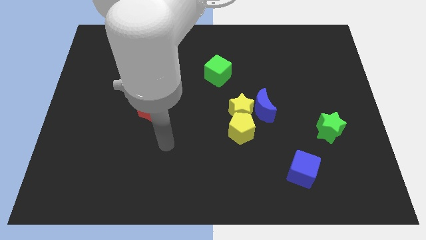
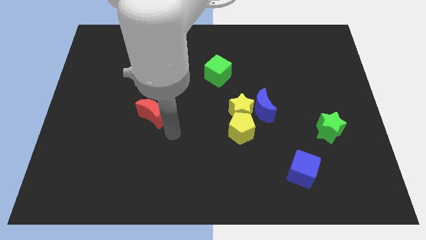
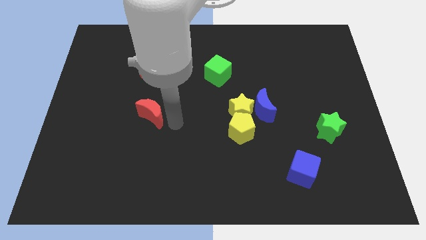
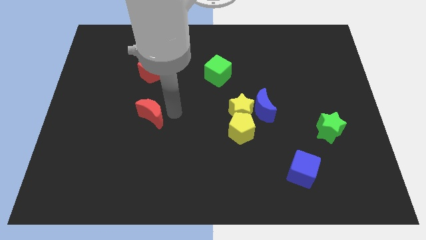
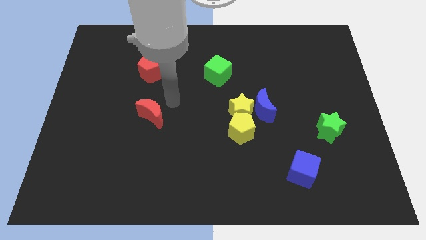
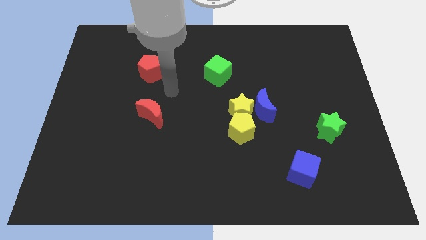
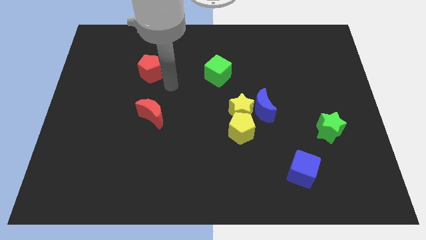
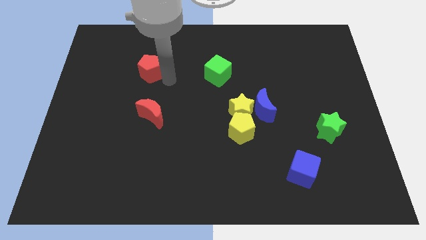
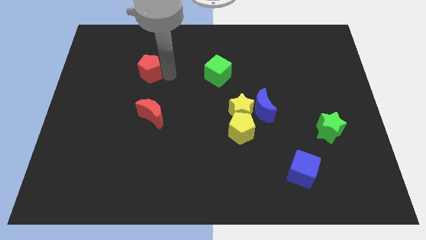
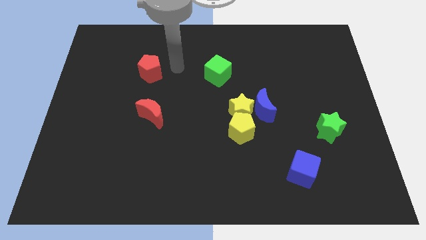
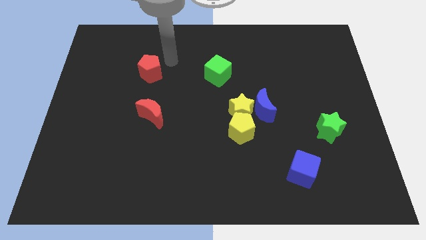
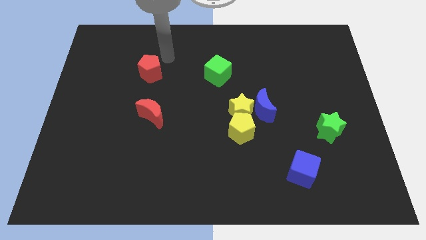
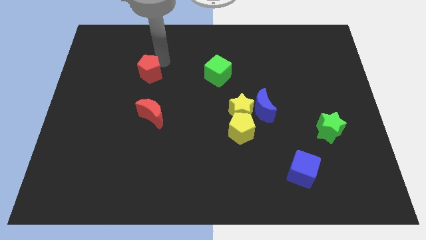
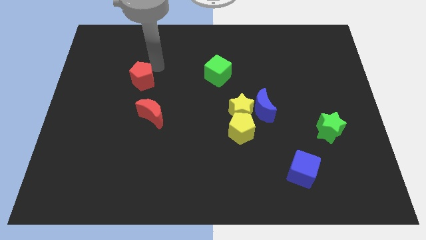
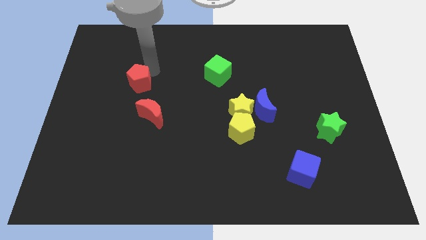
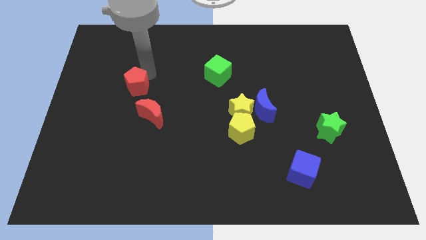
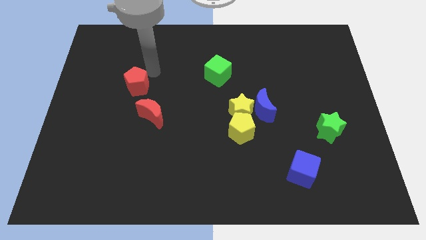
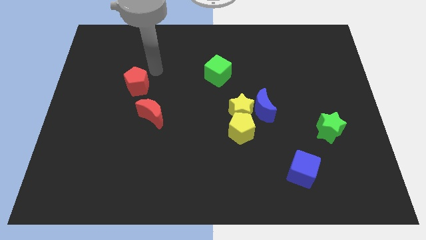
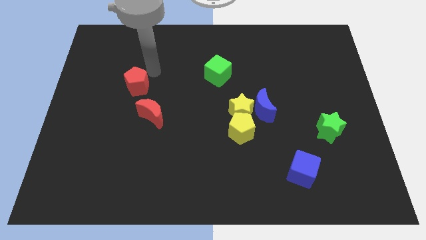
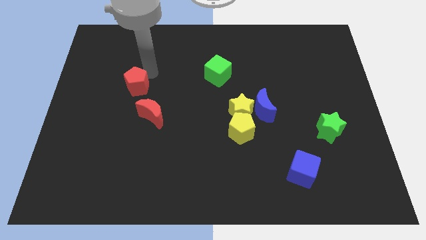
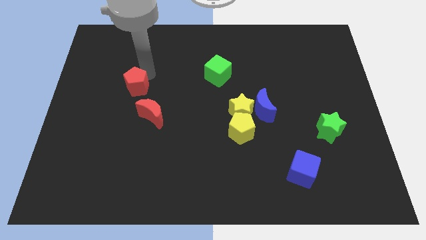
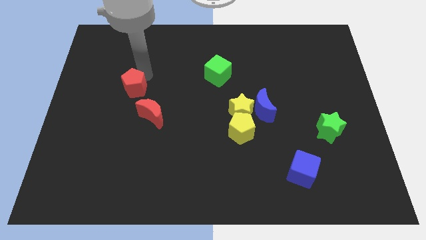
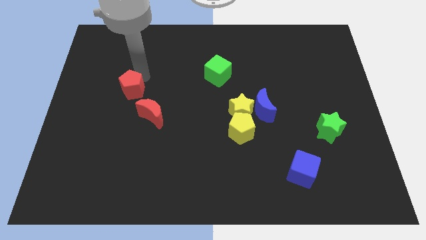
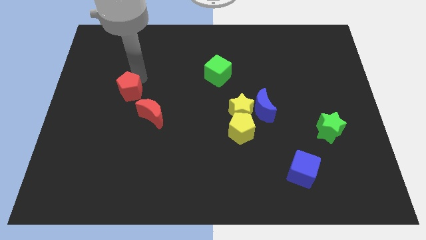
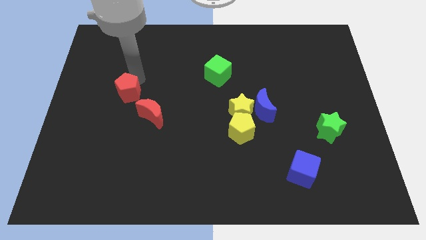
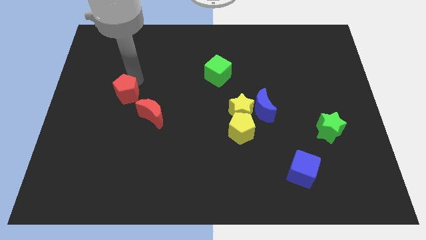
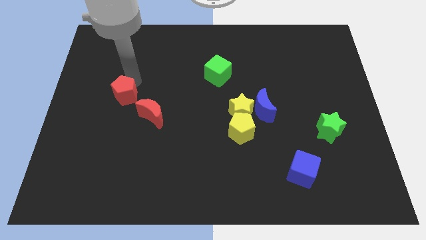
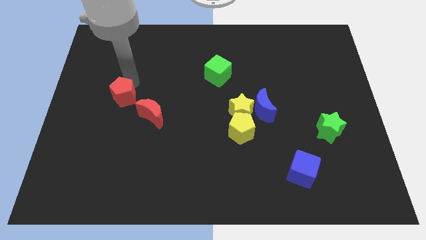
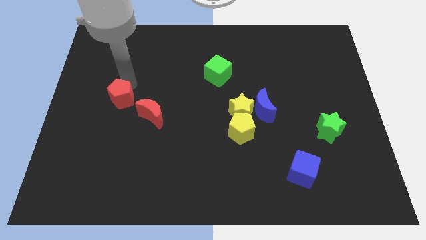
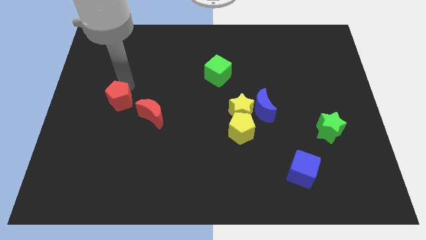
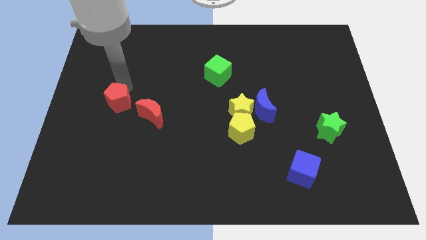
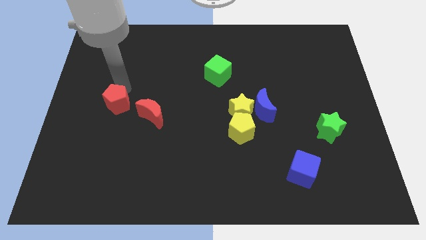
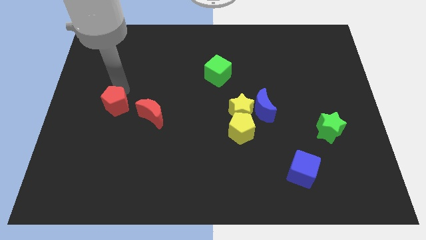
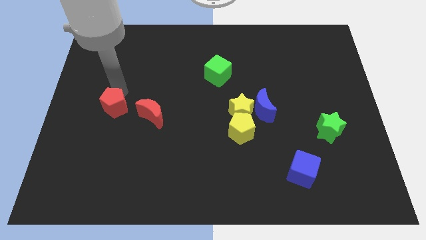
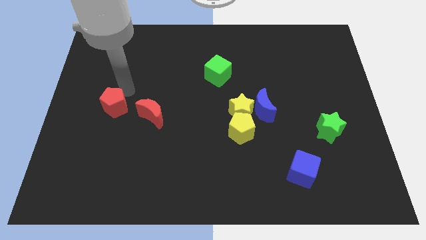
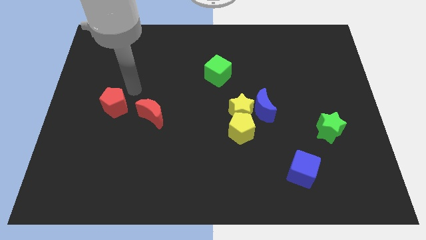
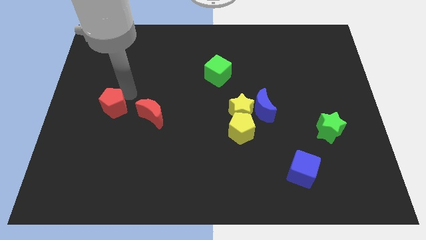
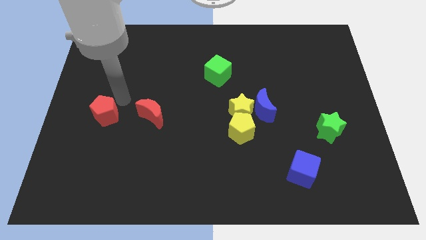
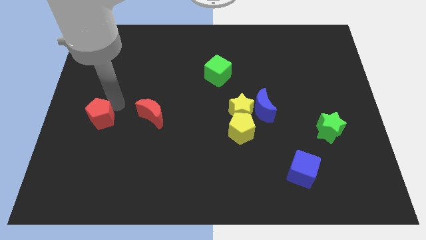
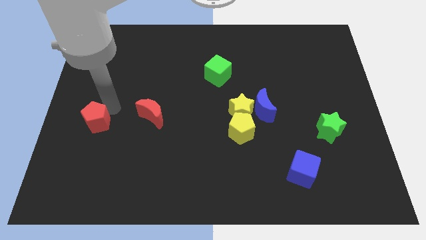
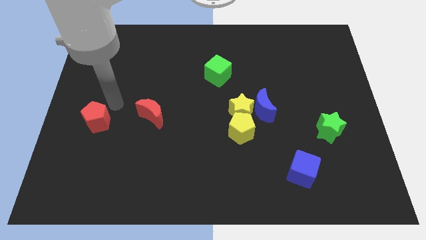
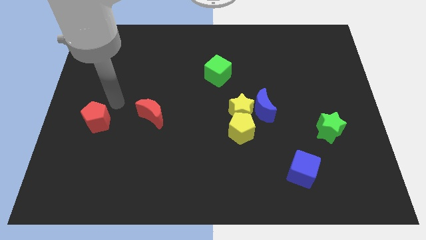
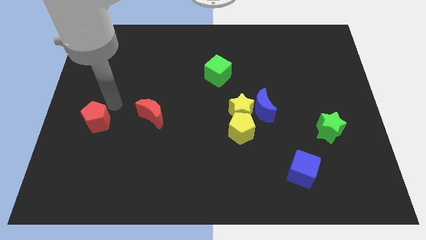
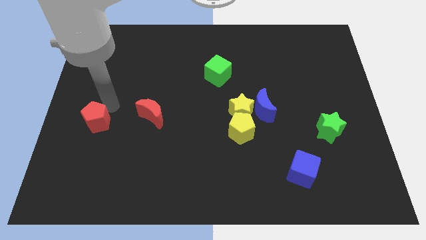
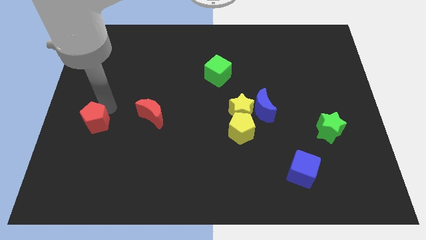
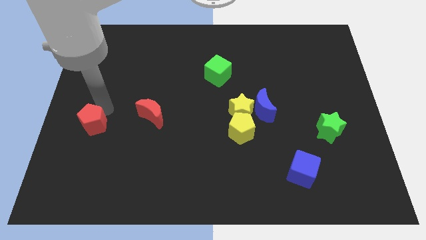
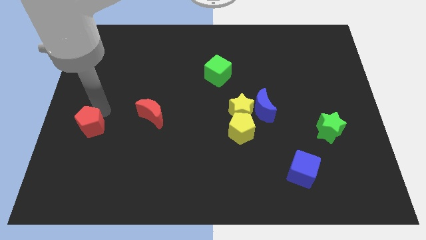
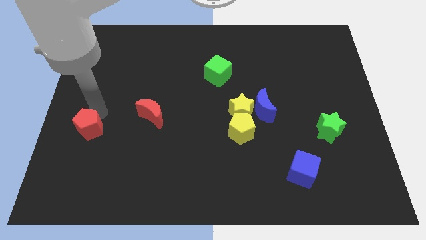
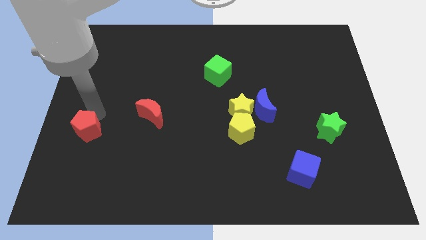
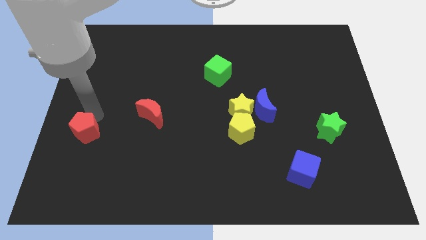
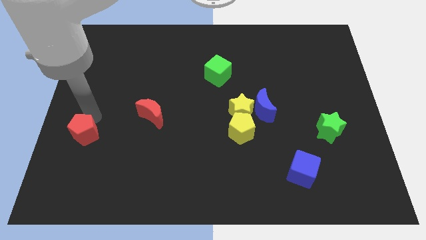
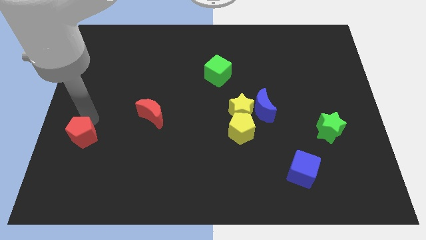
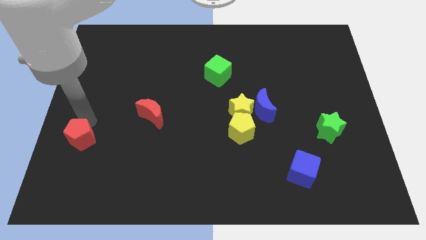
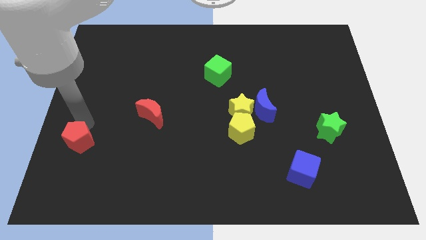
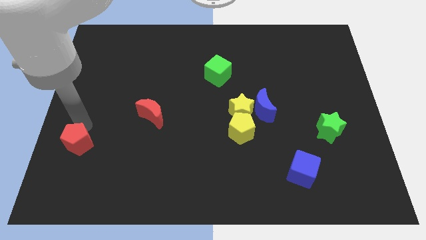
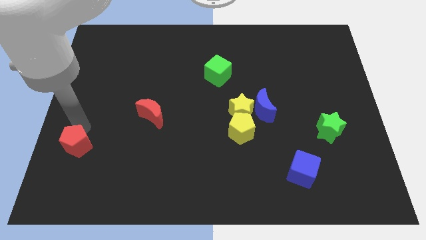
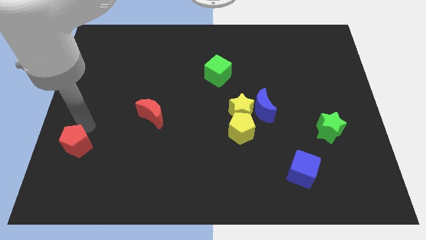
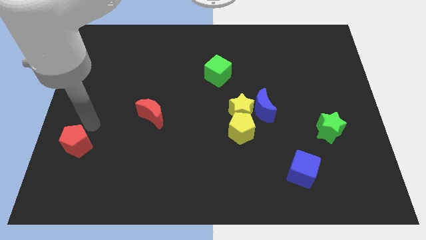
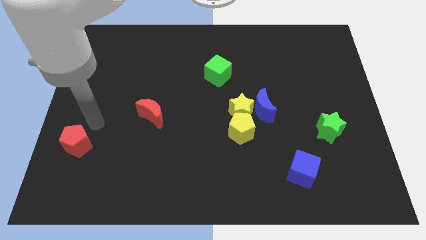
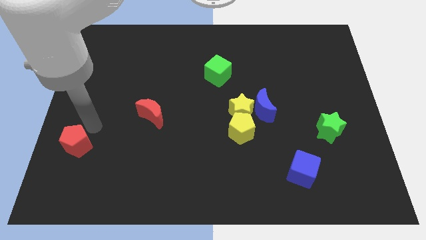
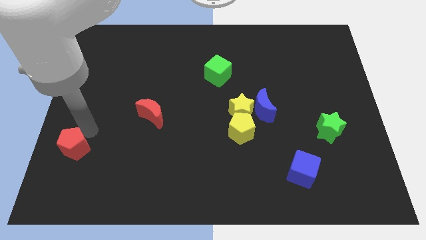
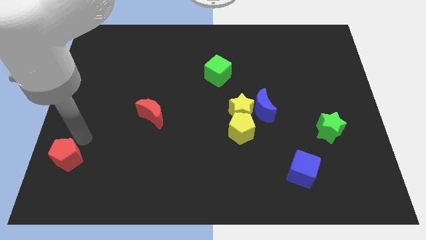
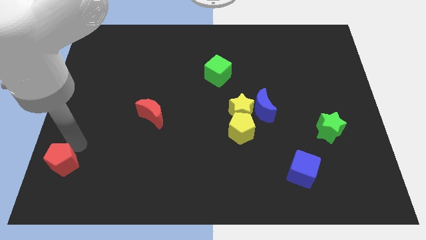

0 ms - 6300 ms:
put the red pentagon to the bottom left corner

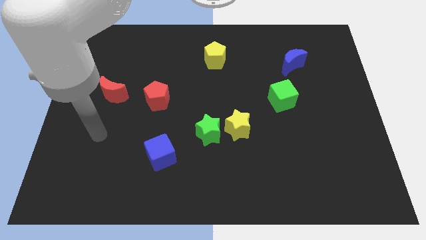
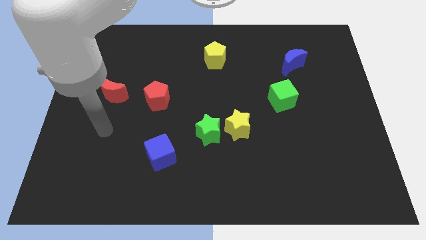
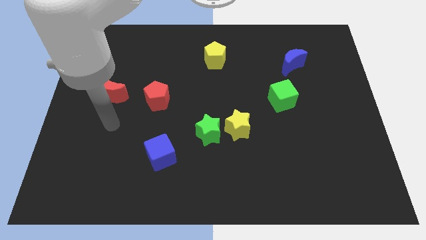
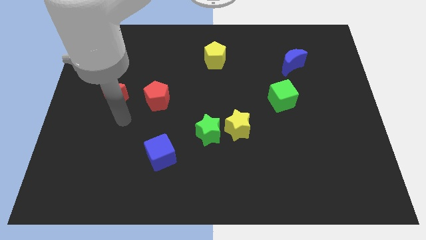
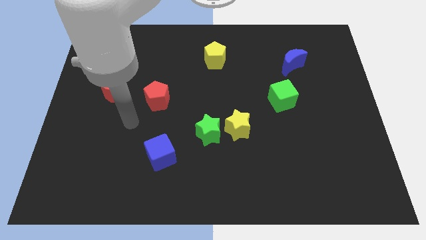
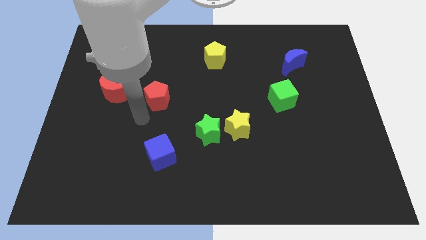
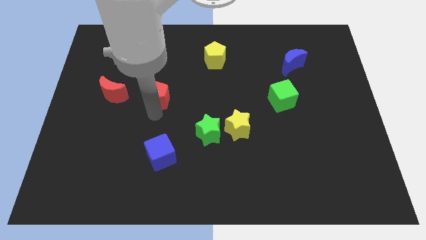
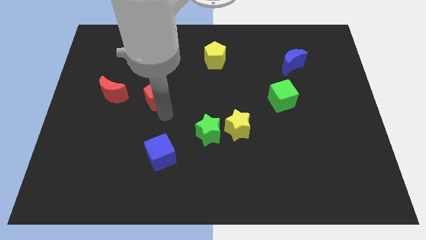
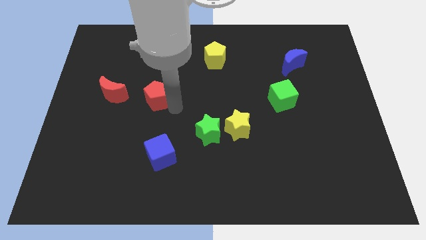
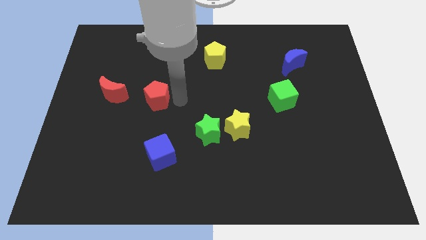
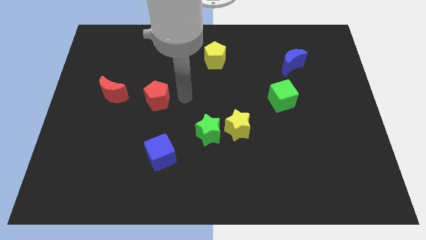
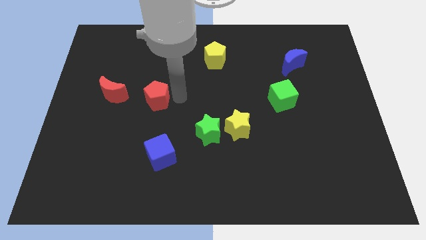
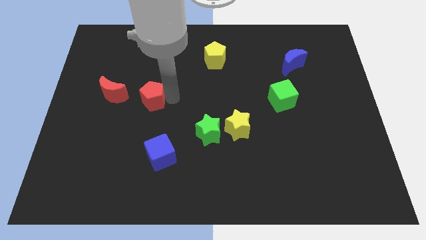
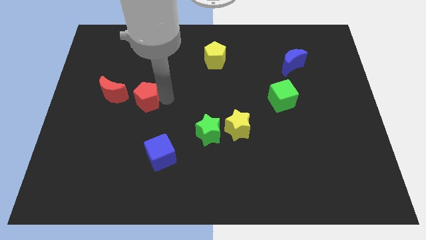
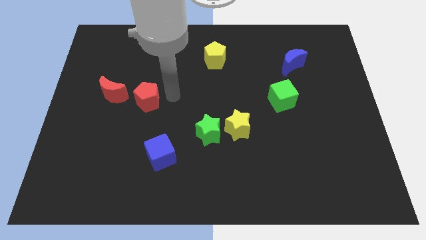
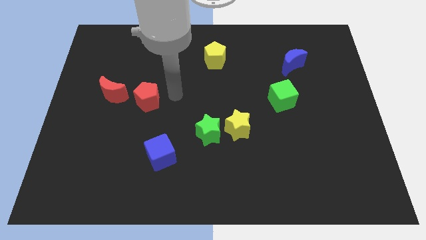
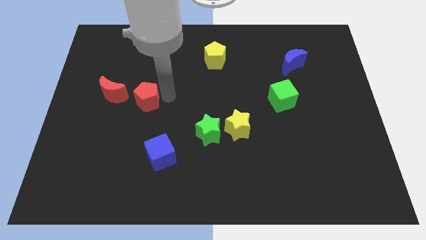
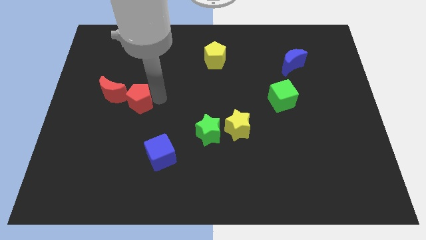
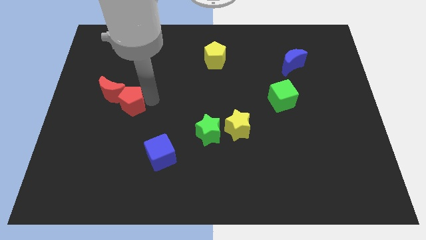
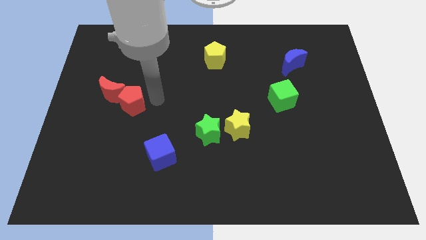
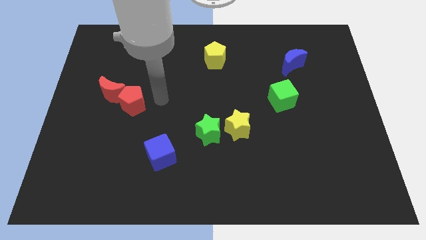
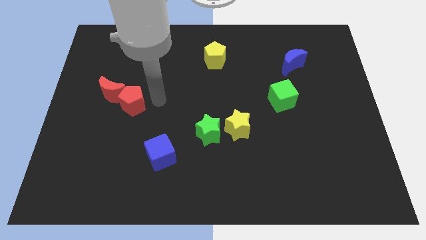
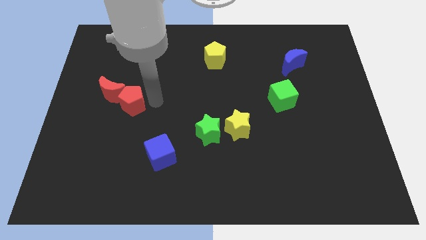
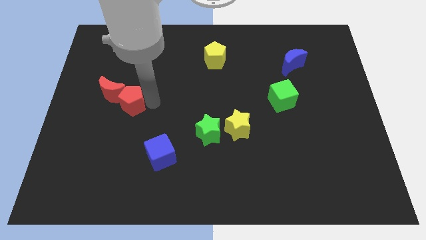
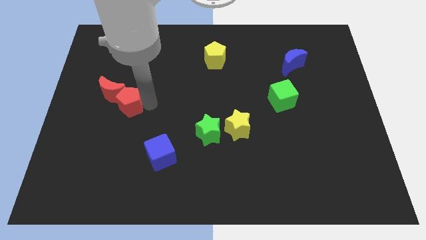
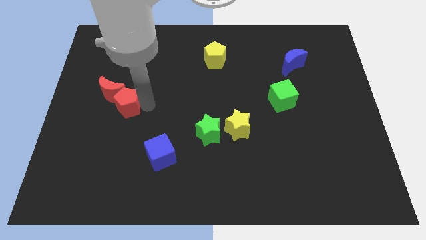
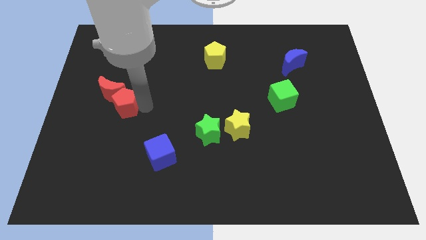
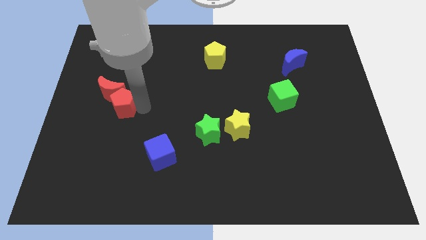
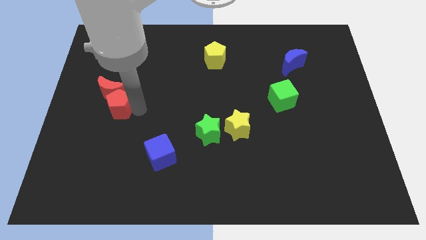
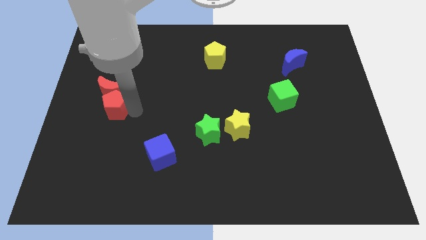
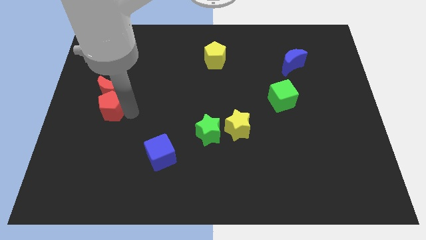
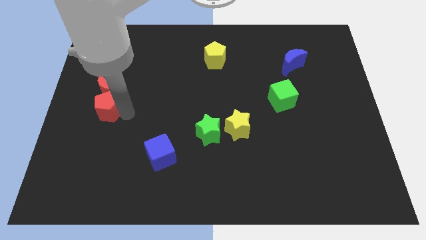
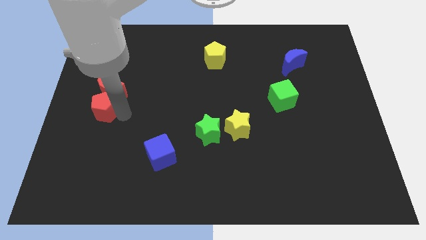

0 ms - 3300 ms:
push the red pentagon to the left side of the board
